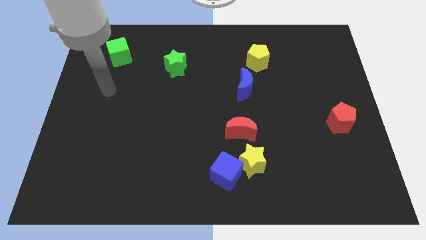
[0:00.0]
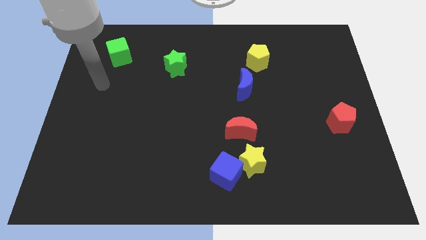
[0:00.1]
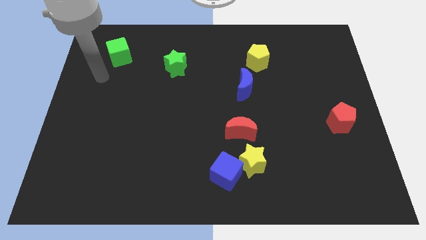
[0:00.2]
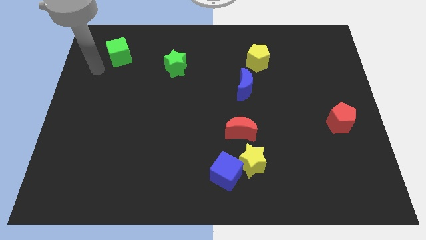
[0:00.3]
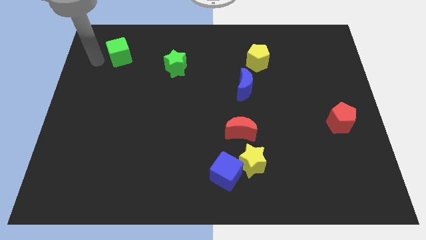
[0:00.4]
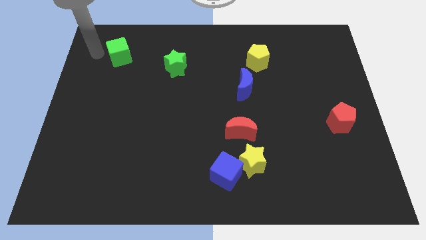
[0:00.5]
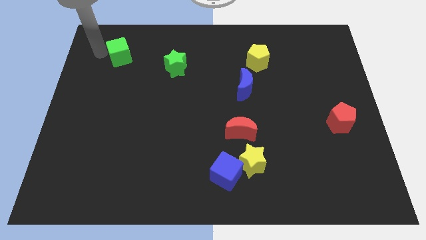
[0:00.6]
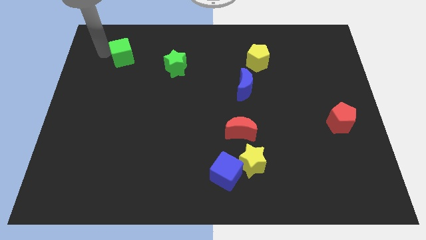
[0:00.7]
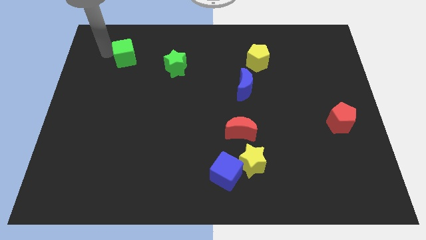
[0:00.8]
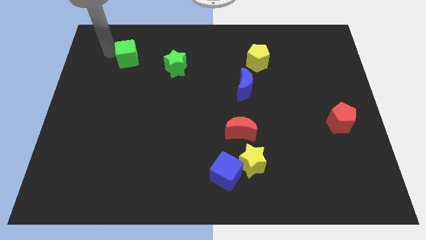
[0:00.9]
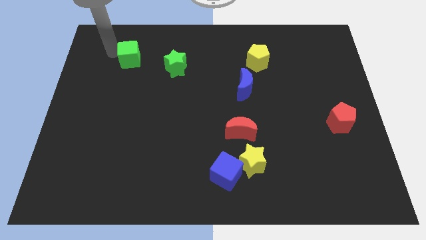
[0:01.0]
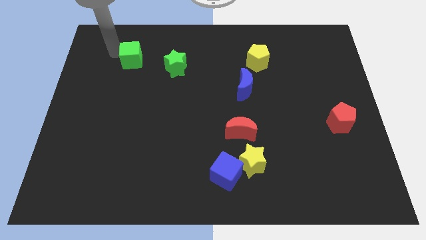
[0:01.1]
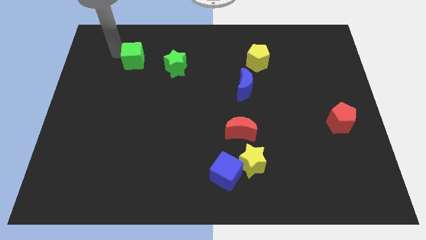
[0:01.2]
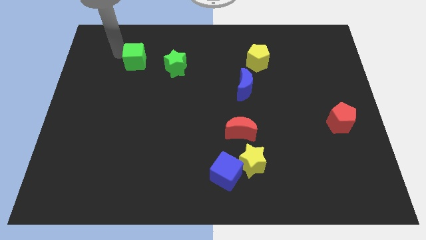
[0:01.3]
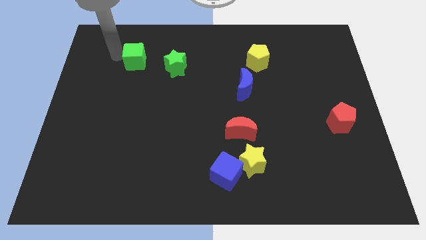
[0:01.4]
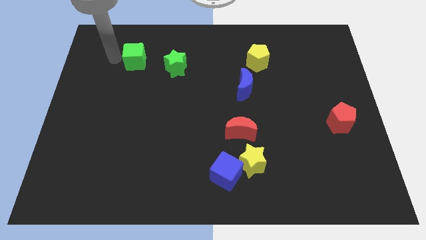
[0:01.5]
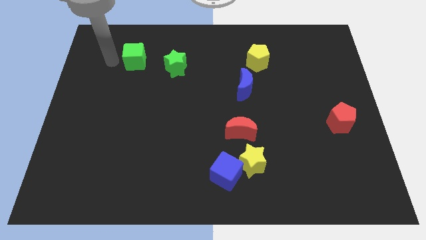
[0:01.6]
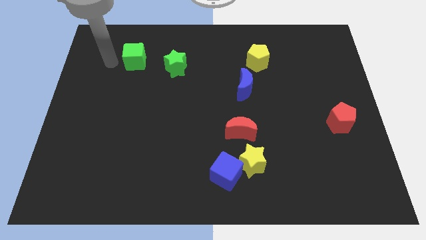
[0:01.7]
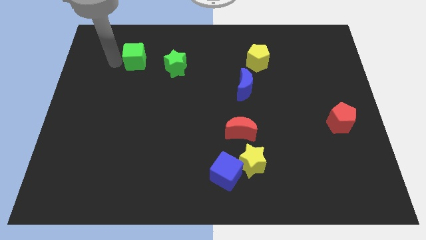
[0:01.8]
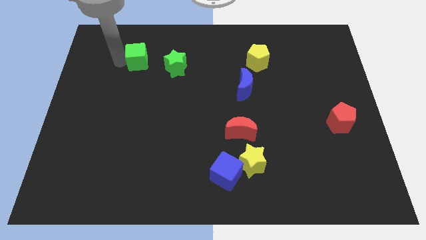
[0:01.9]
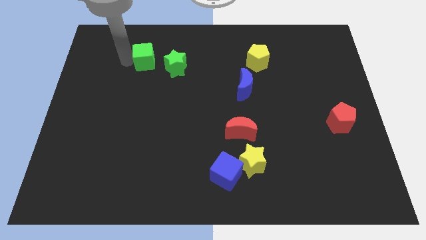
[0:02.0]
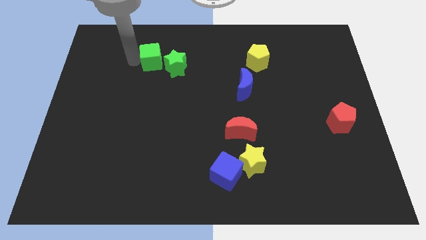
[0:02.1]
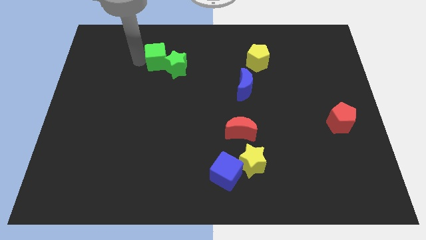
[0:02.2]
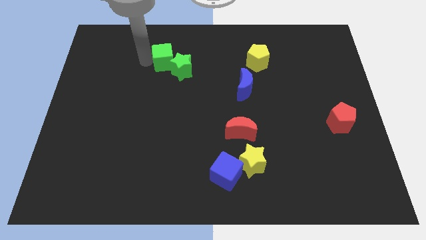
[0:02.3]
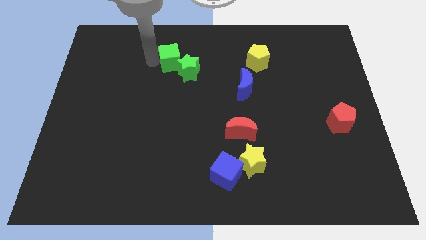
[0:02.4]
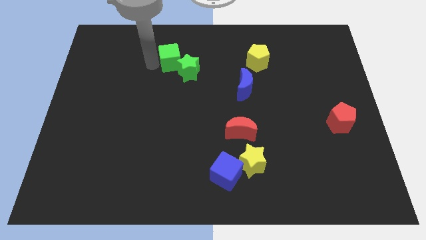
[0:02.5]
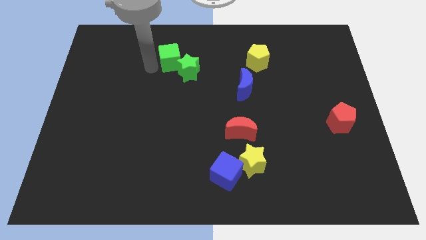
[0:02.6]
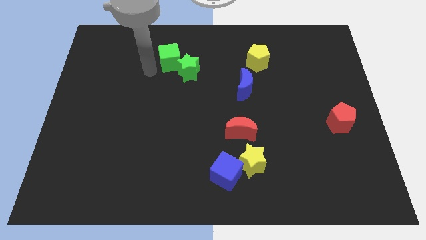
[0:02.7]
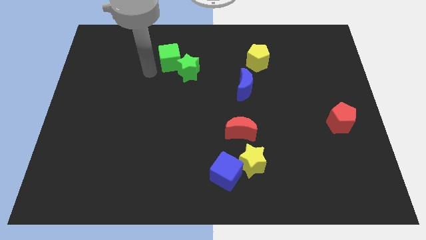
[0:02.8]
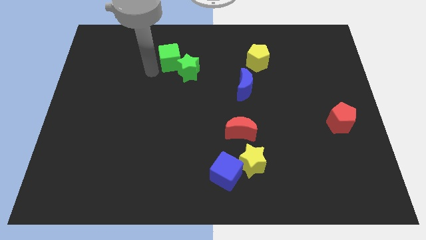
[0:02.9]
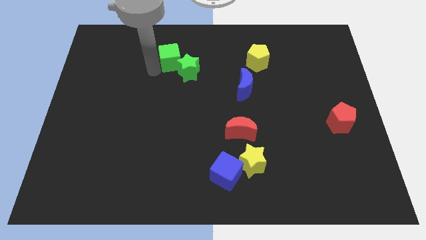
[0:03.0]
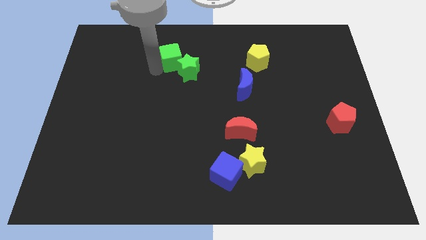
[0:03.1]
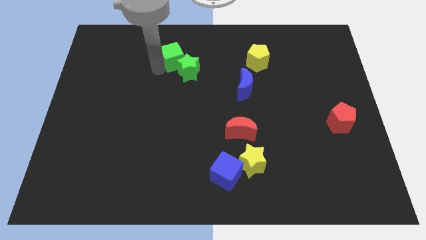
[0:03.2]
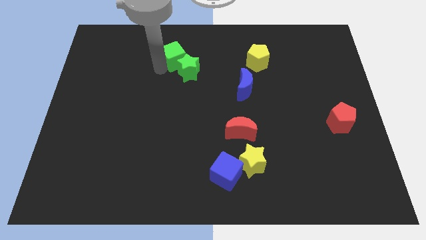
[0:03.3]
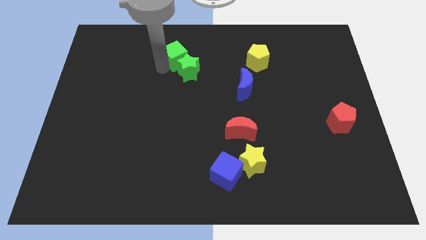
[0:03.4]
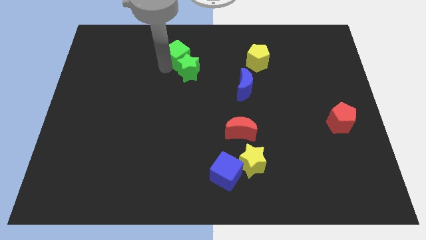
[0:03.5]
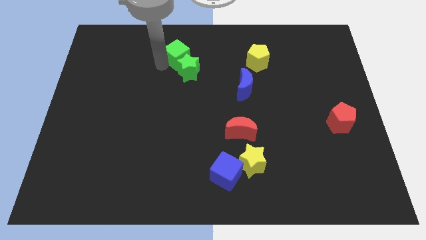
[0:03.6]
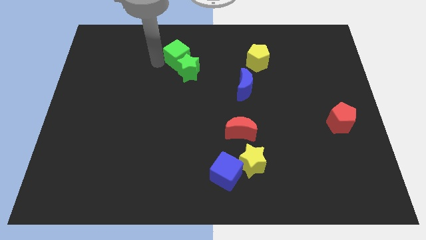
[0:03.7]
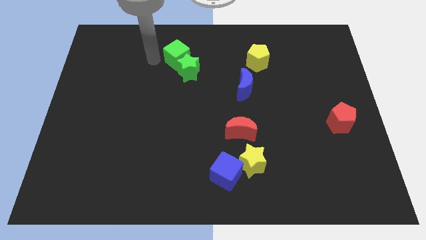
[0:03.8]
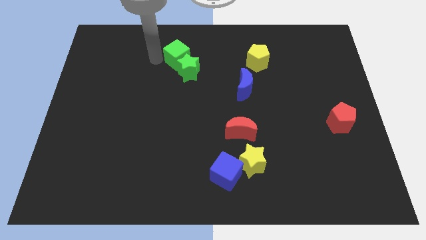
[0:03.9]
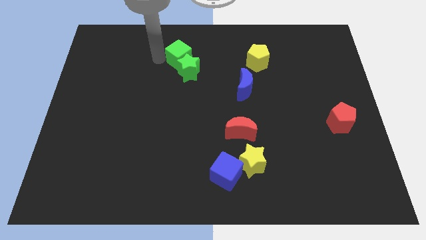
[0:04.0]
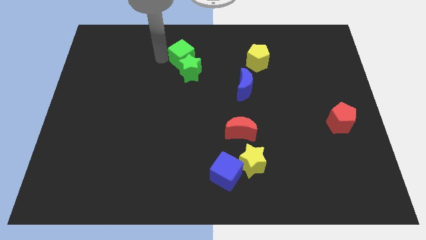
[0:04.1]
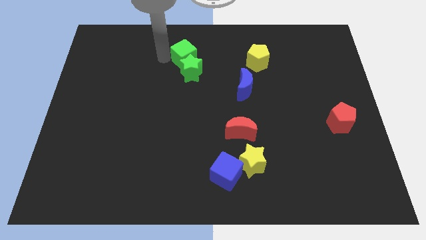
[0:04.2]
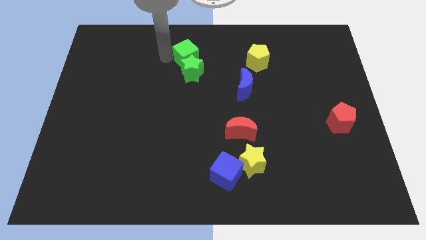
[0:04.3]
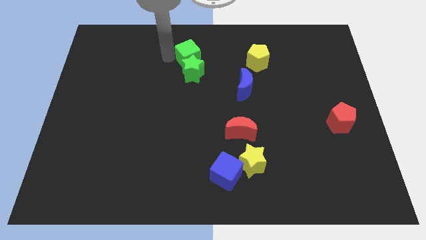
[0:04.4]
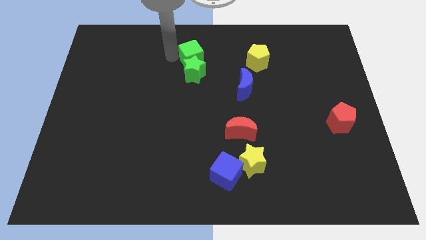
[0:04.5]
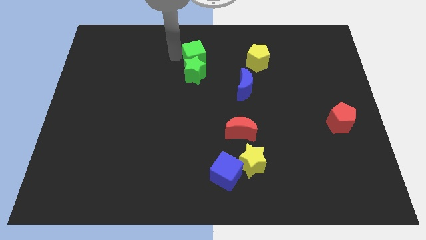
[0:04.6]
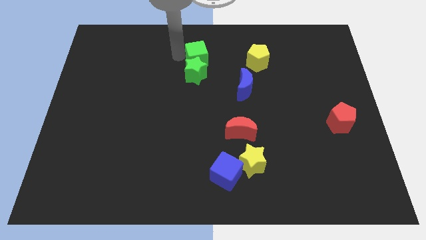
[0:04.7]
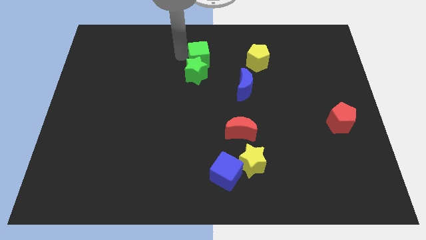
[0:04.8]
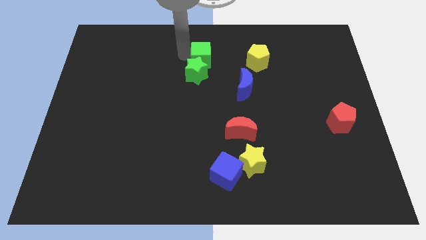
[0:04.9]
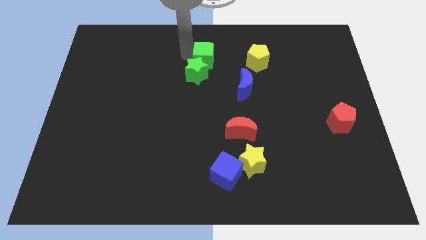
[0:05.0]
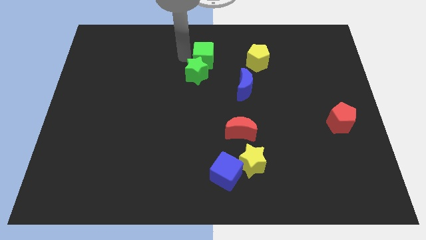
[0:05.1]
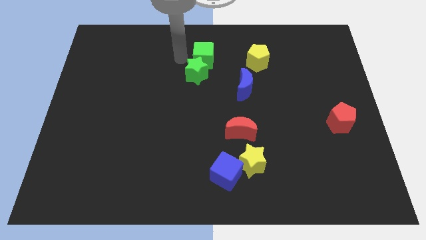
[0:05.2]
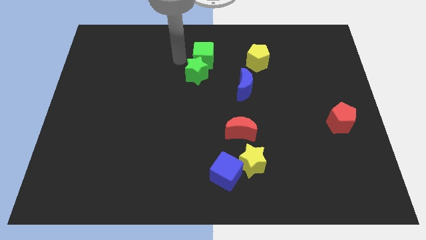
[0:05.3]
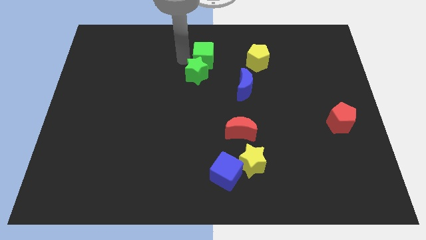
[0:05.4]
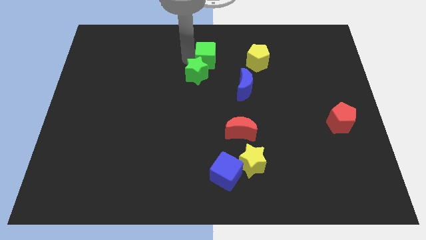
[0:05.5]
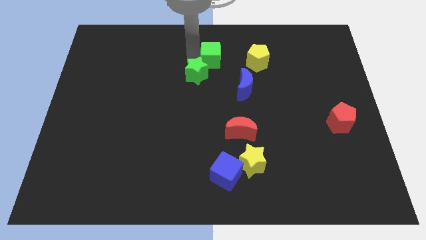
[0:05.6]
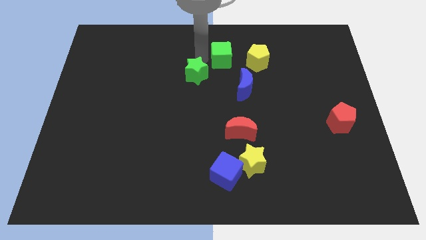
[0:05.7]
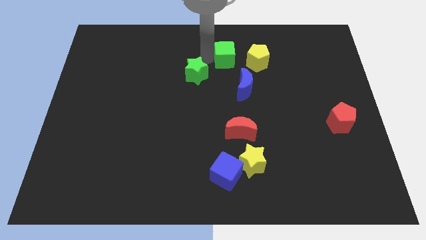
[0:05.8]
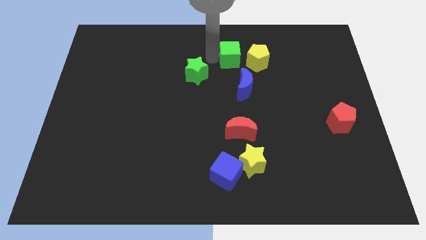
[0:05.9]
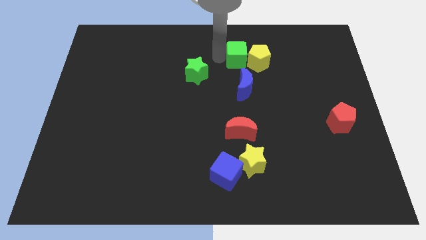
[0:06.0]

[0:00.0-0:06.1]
push the green cube to the yellow pentagon

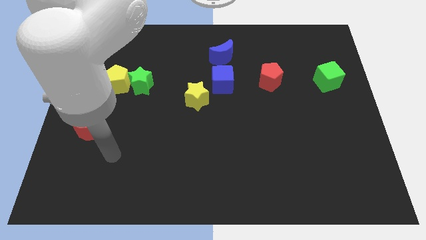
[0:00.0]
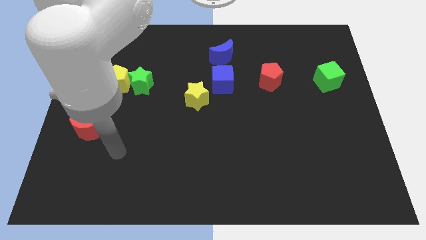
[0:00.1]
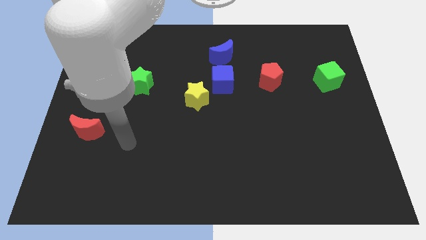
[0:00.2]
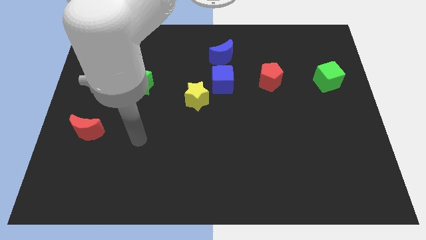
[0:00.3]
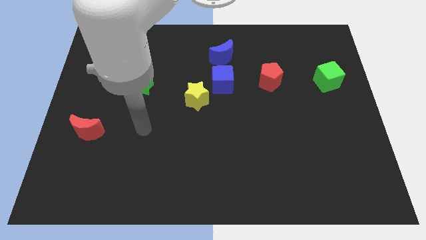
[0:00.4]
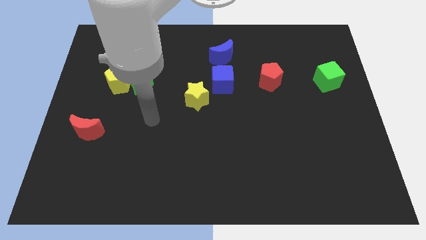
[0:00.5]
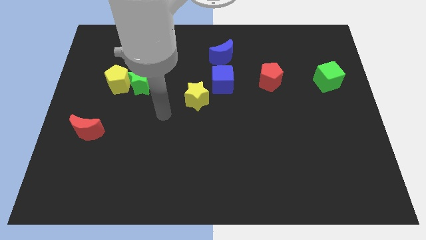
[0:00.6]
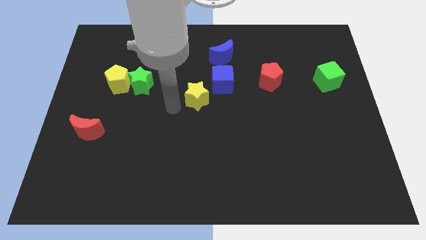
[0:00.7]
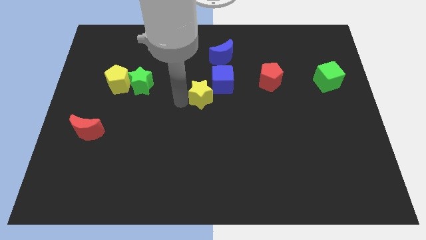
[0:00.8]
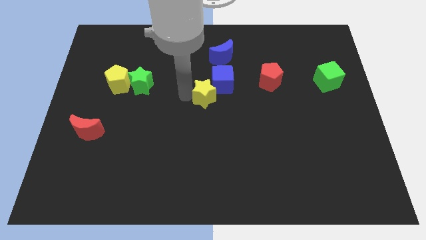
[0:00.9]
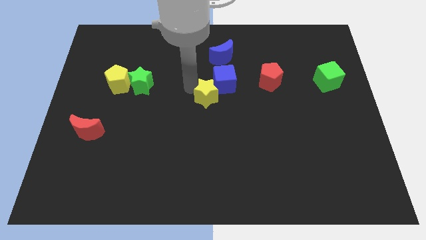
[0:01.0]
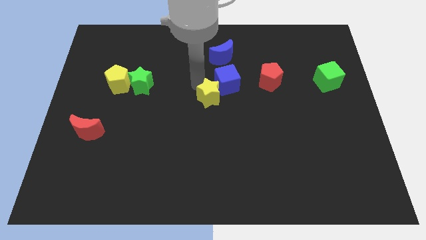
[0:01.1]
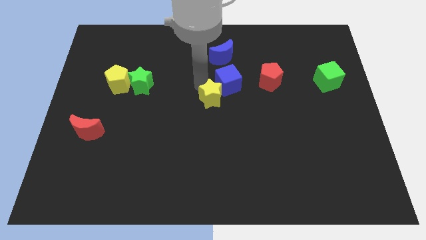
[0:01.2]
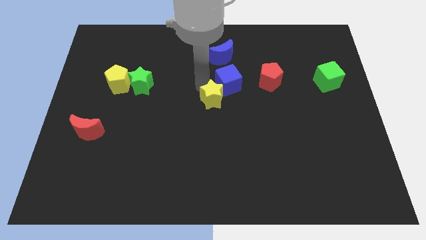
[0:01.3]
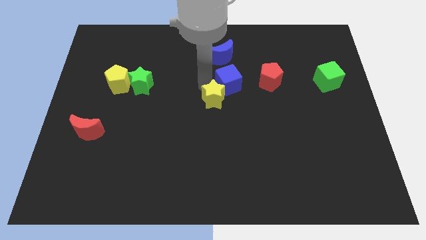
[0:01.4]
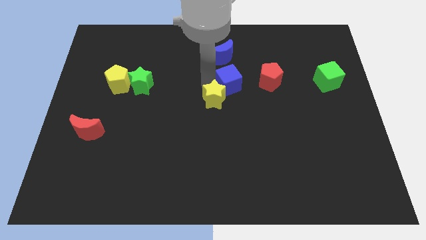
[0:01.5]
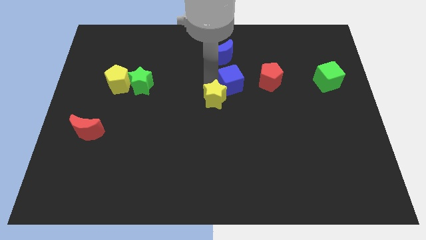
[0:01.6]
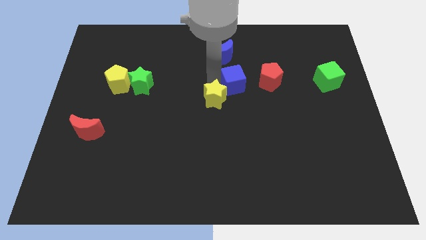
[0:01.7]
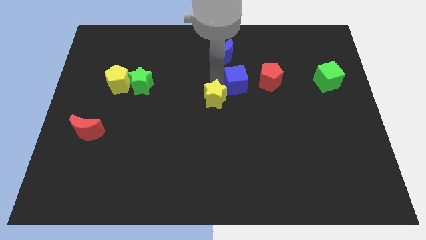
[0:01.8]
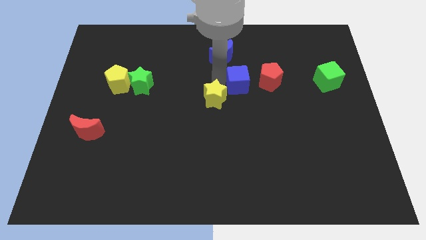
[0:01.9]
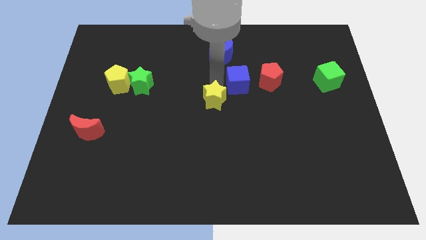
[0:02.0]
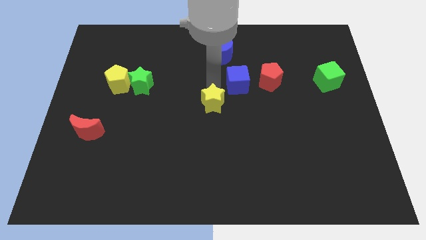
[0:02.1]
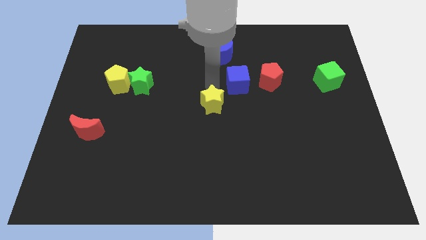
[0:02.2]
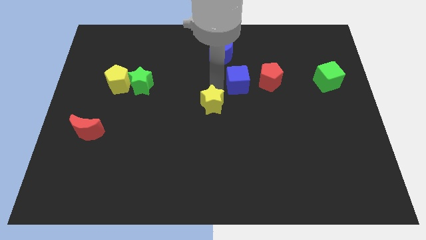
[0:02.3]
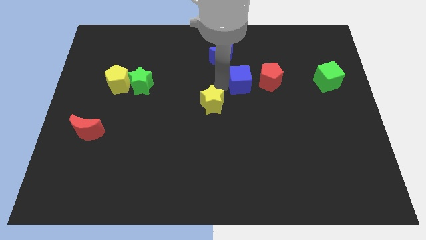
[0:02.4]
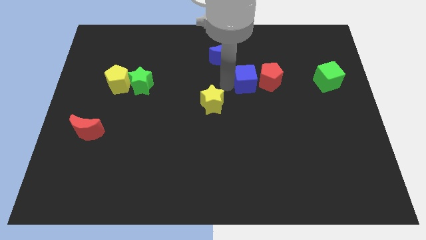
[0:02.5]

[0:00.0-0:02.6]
push the blue cube towards the red pentagon
